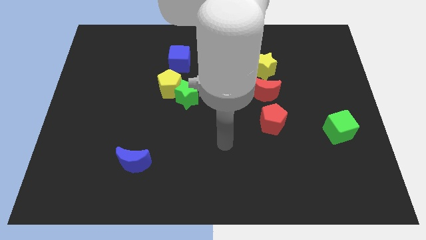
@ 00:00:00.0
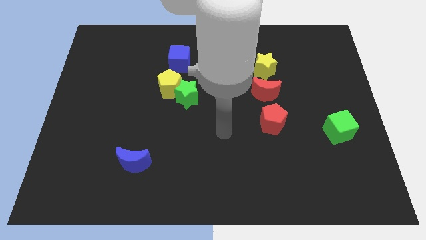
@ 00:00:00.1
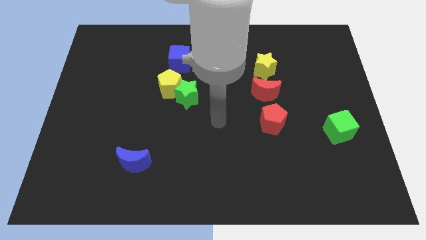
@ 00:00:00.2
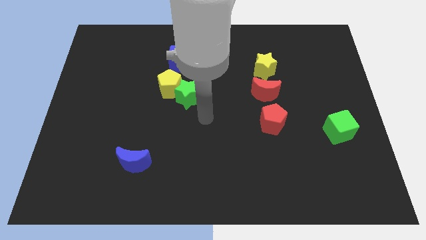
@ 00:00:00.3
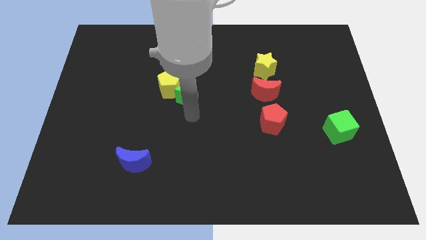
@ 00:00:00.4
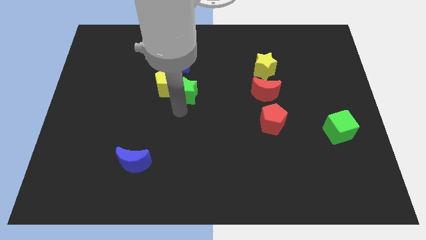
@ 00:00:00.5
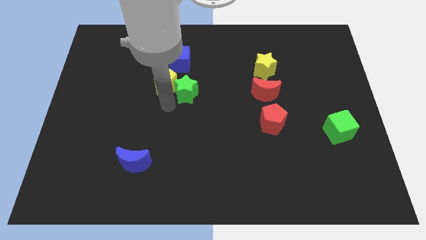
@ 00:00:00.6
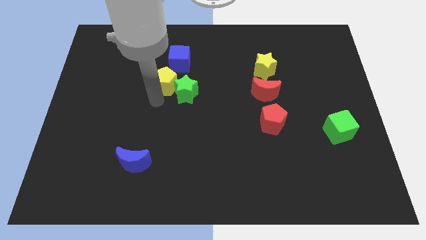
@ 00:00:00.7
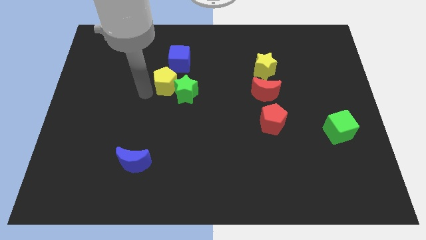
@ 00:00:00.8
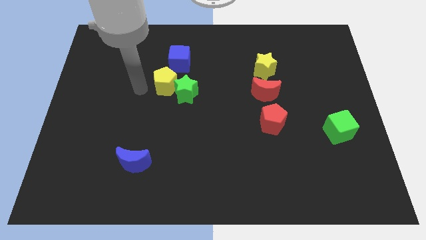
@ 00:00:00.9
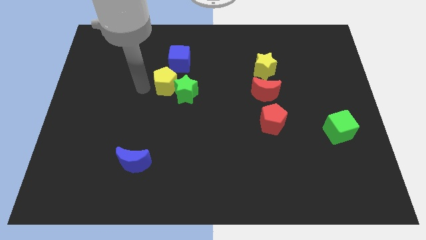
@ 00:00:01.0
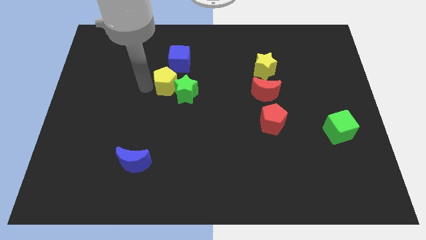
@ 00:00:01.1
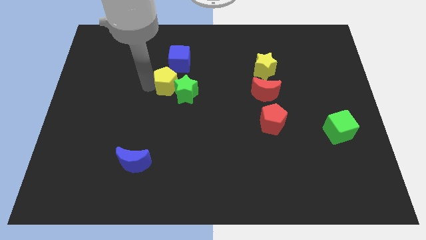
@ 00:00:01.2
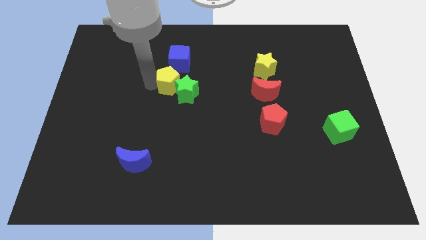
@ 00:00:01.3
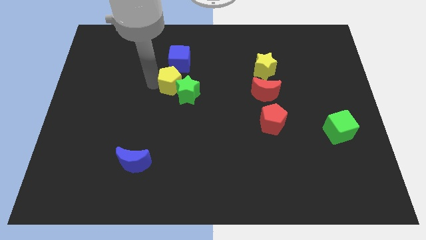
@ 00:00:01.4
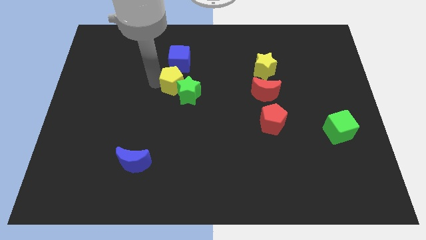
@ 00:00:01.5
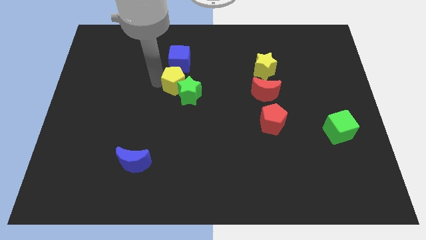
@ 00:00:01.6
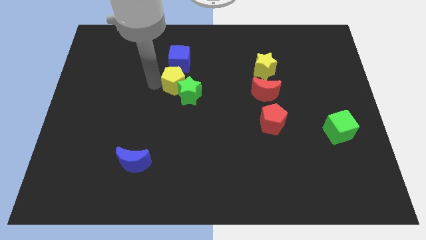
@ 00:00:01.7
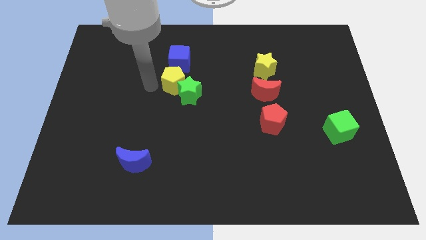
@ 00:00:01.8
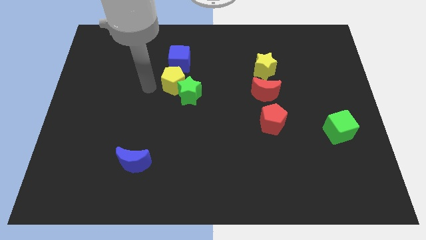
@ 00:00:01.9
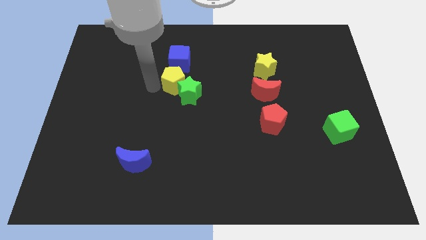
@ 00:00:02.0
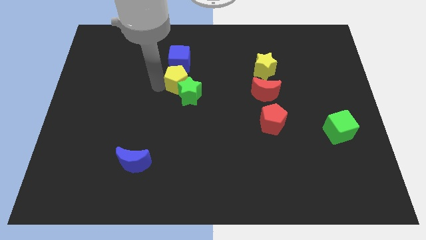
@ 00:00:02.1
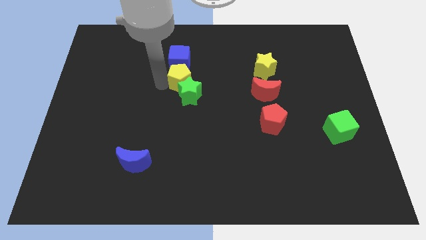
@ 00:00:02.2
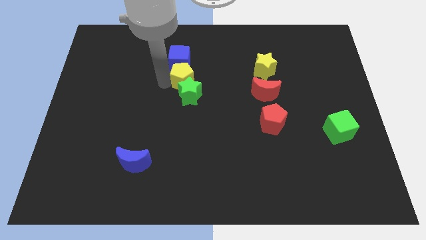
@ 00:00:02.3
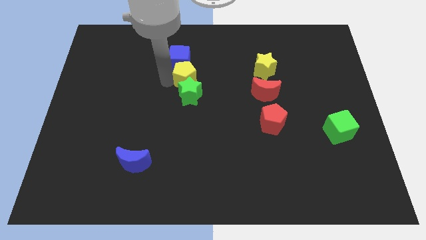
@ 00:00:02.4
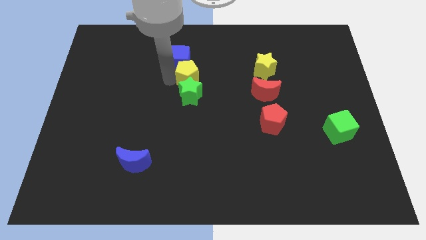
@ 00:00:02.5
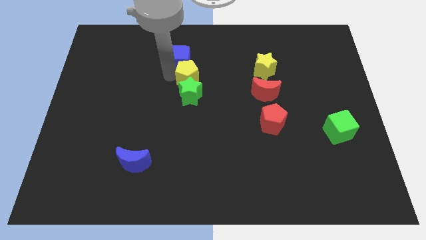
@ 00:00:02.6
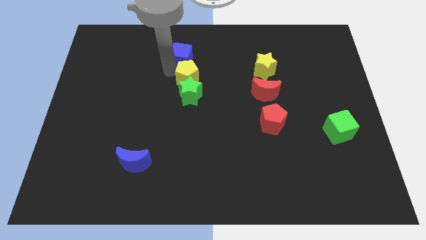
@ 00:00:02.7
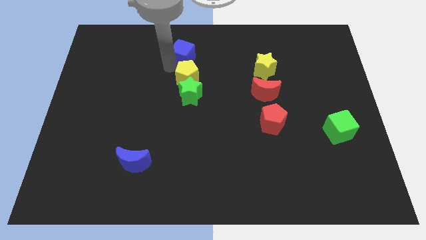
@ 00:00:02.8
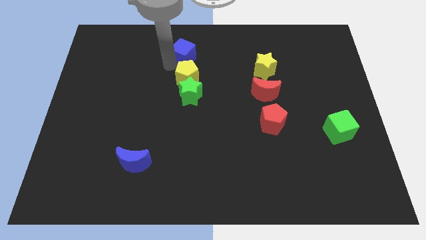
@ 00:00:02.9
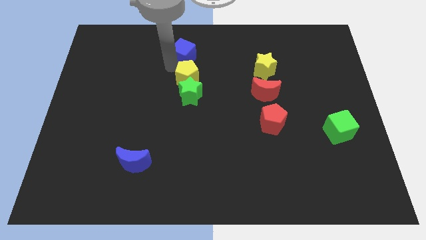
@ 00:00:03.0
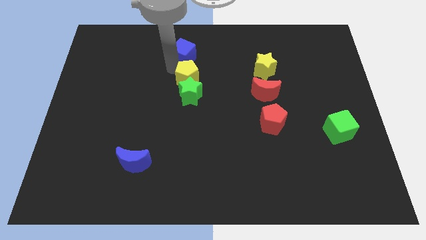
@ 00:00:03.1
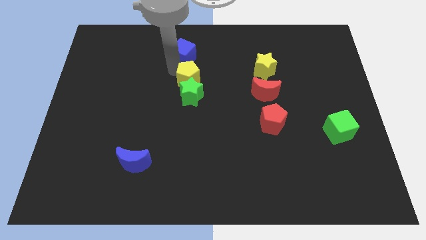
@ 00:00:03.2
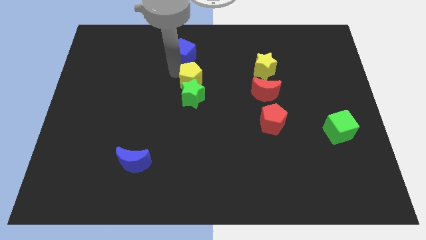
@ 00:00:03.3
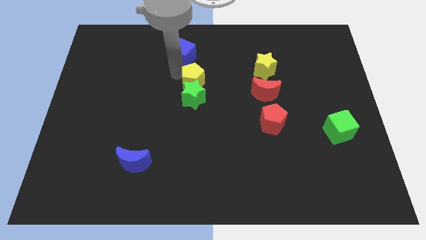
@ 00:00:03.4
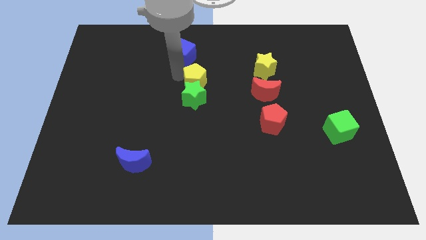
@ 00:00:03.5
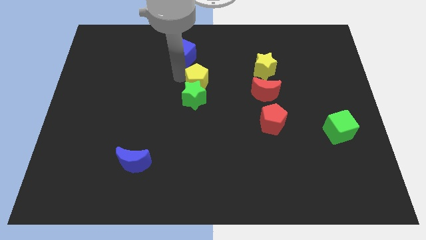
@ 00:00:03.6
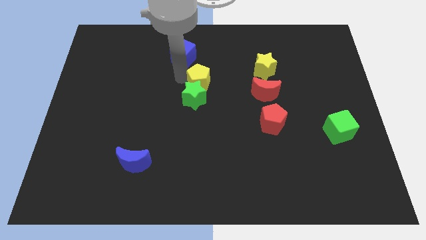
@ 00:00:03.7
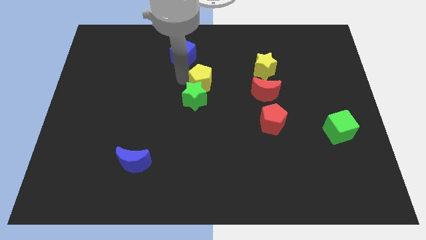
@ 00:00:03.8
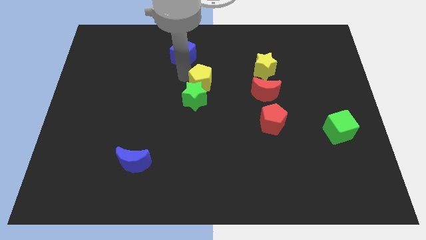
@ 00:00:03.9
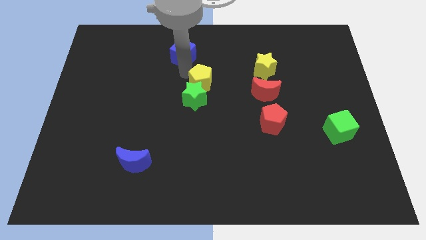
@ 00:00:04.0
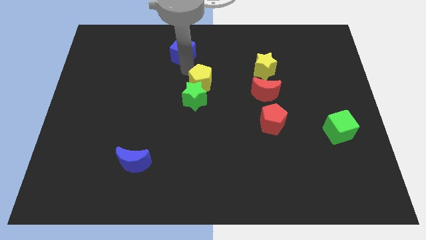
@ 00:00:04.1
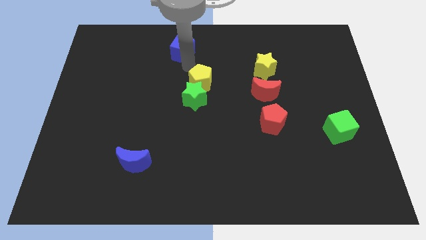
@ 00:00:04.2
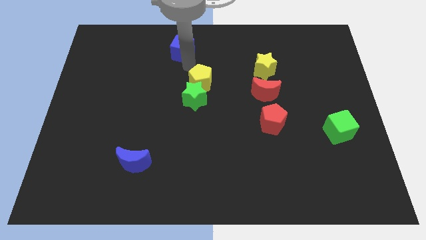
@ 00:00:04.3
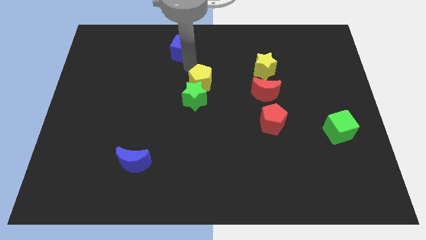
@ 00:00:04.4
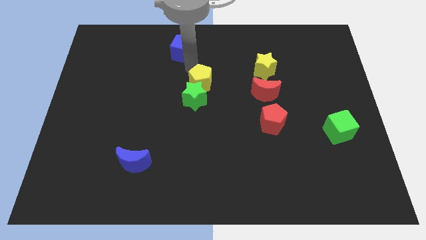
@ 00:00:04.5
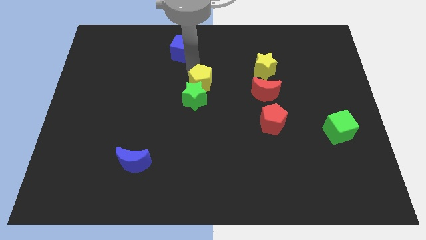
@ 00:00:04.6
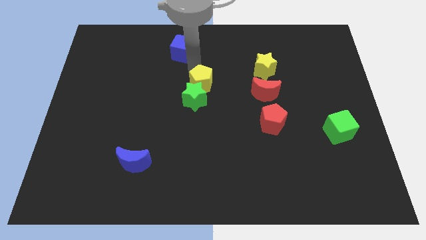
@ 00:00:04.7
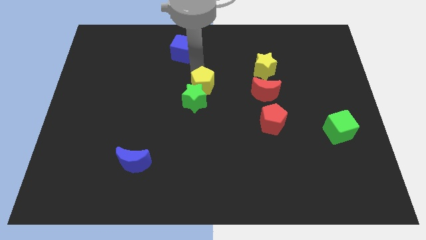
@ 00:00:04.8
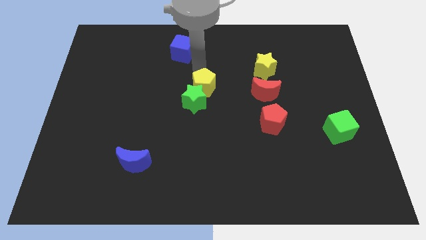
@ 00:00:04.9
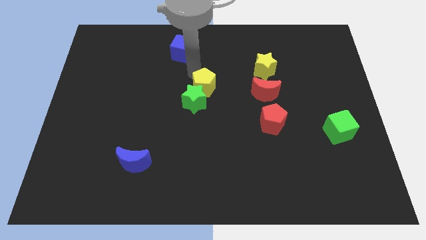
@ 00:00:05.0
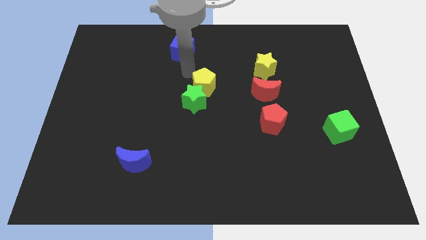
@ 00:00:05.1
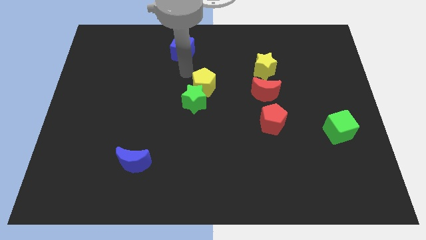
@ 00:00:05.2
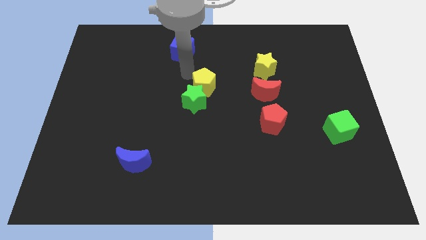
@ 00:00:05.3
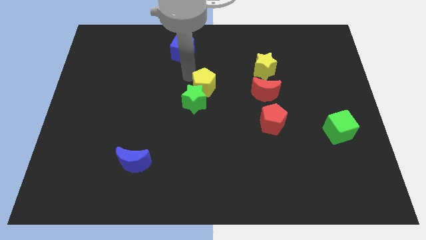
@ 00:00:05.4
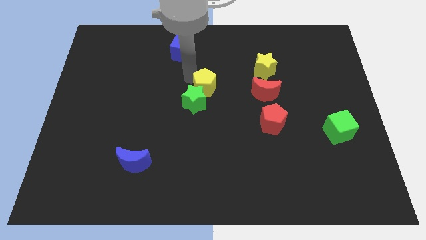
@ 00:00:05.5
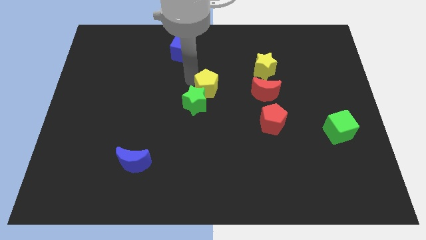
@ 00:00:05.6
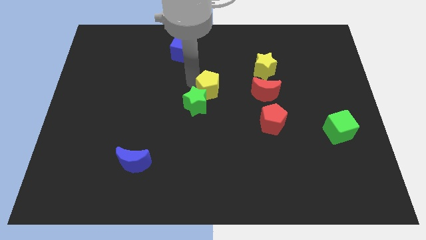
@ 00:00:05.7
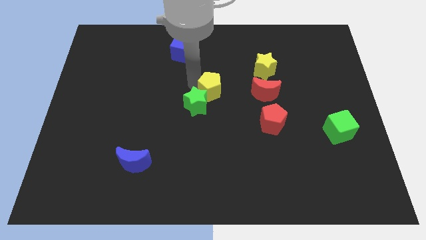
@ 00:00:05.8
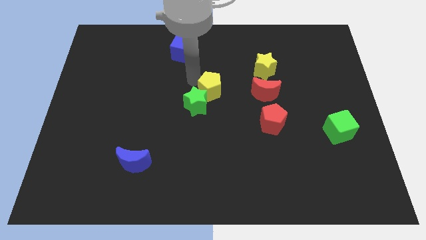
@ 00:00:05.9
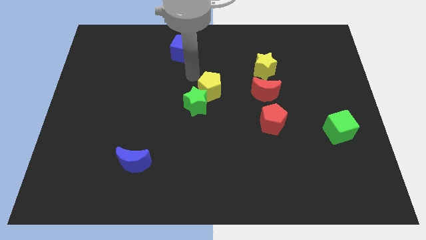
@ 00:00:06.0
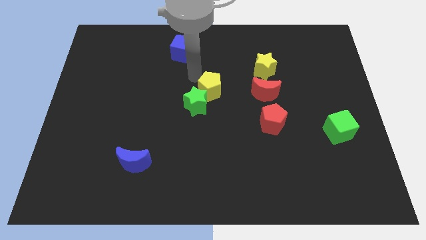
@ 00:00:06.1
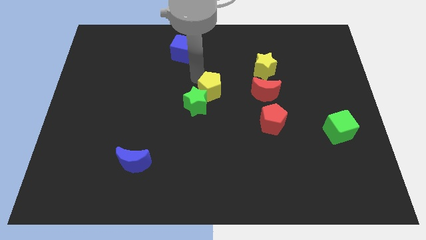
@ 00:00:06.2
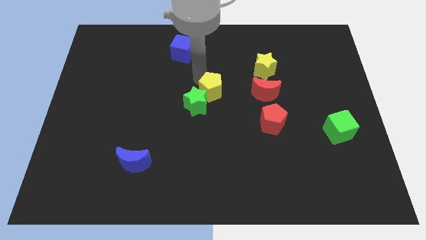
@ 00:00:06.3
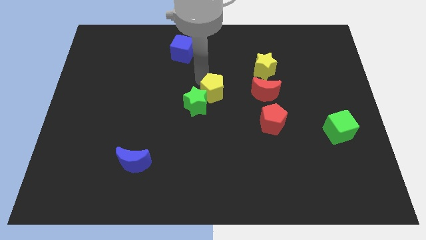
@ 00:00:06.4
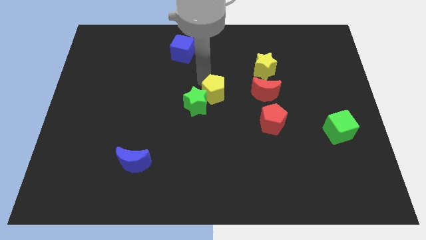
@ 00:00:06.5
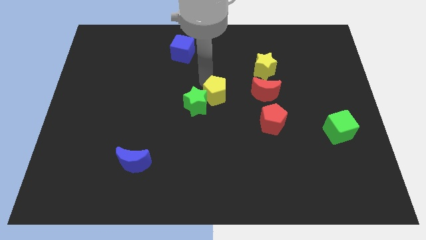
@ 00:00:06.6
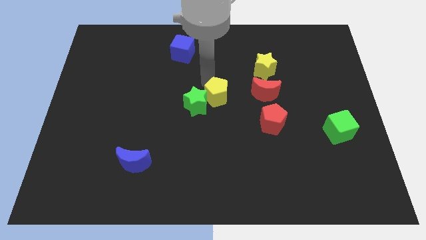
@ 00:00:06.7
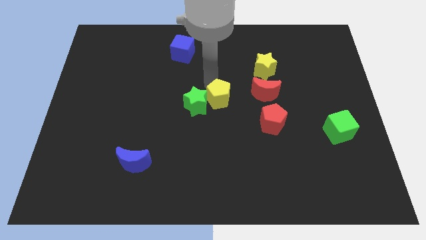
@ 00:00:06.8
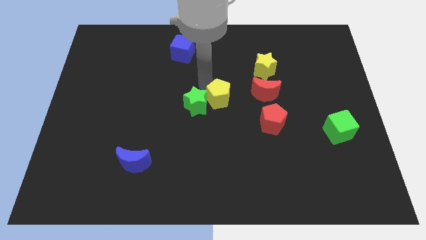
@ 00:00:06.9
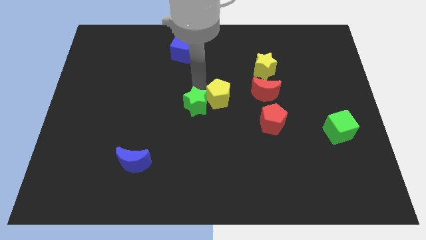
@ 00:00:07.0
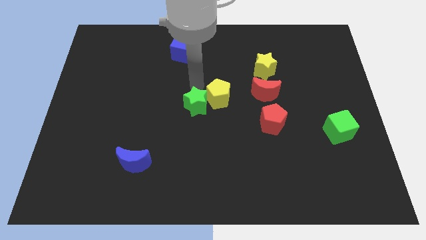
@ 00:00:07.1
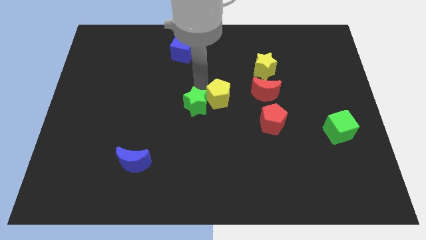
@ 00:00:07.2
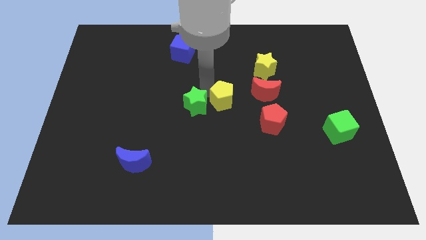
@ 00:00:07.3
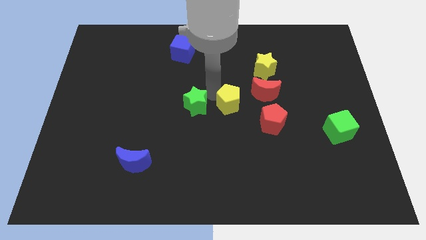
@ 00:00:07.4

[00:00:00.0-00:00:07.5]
slide the yellow pentagon to the bottom left of the red moon
